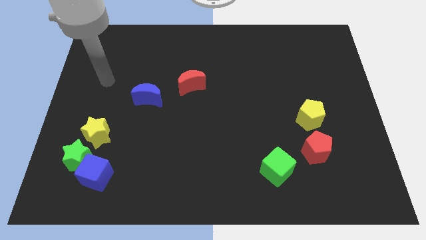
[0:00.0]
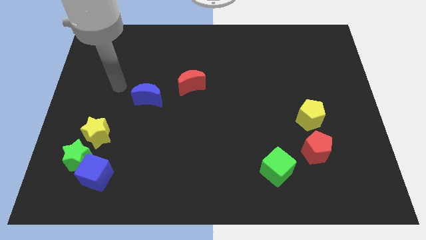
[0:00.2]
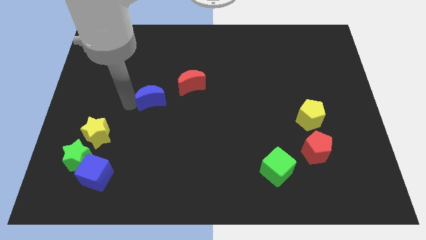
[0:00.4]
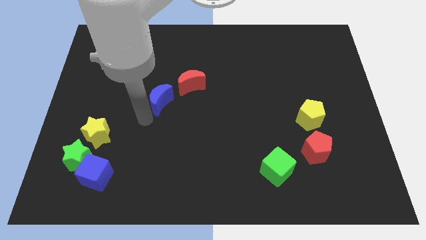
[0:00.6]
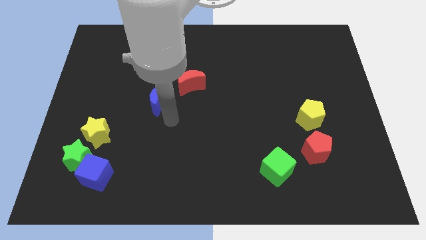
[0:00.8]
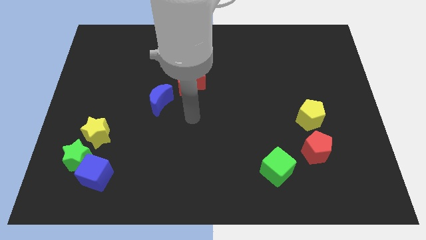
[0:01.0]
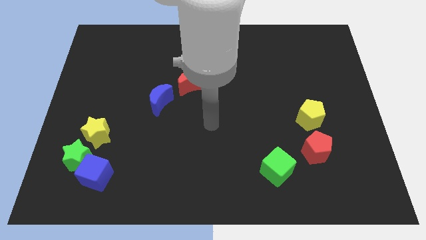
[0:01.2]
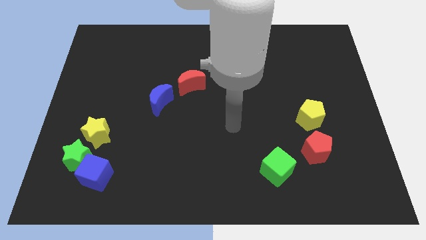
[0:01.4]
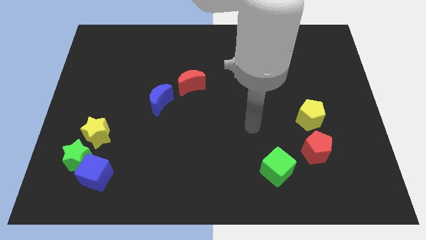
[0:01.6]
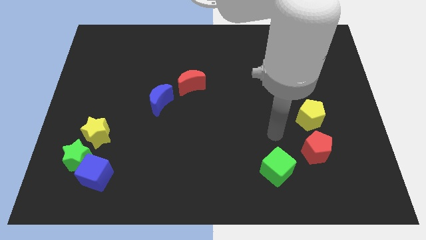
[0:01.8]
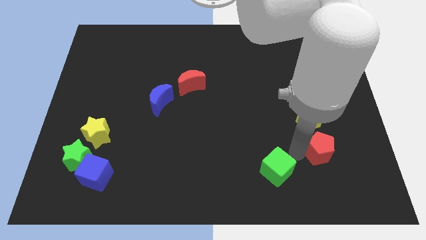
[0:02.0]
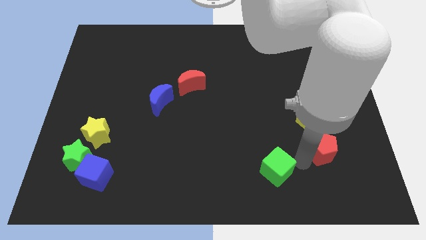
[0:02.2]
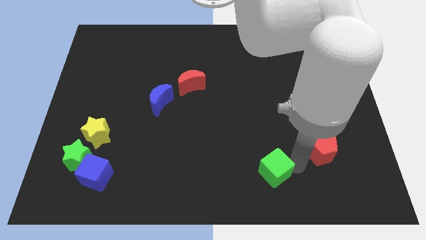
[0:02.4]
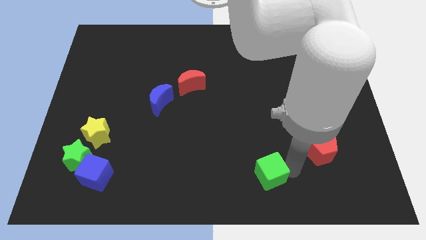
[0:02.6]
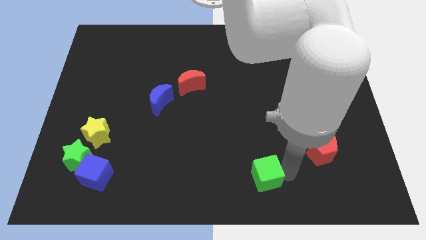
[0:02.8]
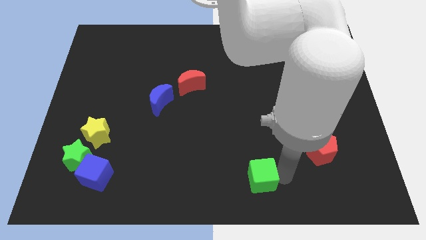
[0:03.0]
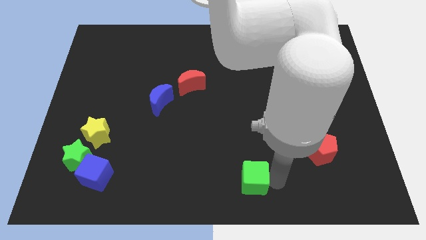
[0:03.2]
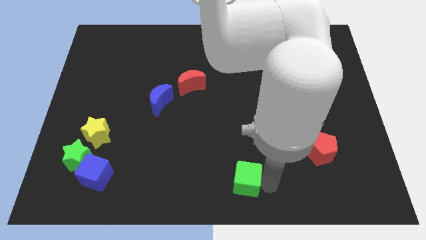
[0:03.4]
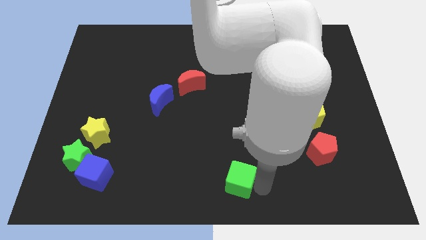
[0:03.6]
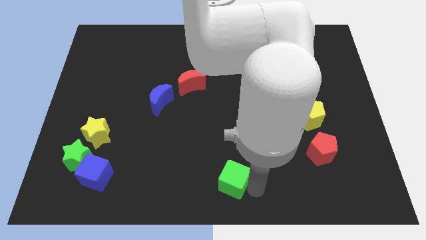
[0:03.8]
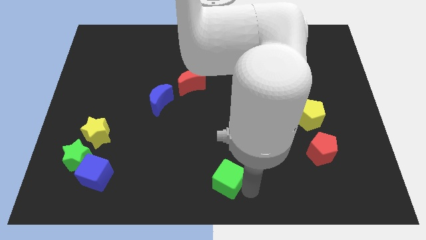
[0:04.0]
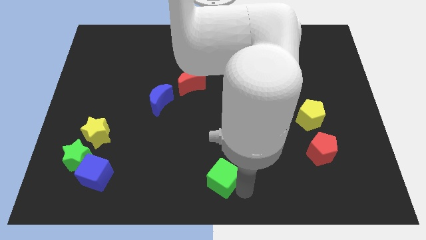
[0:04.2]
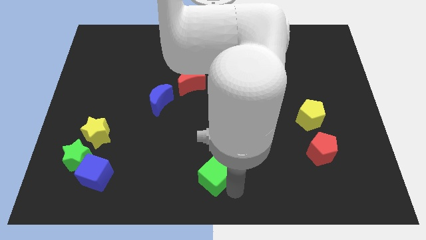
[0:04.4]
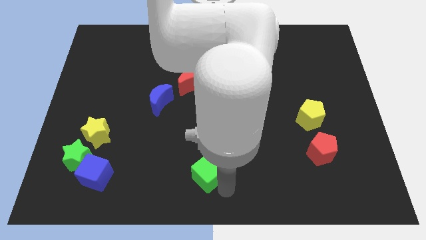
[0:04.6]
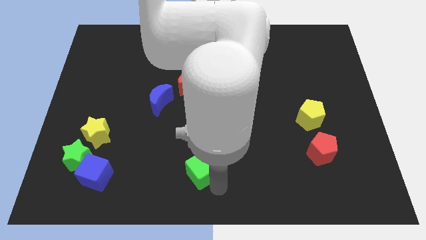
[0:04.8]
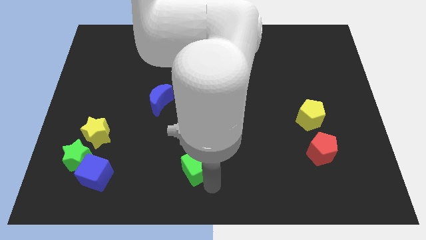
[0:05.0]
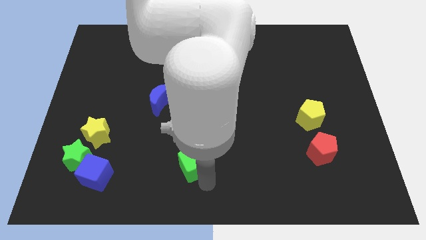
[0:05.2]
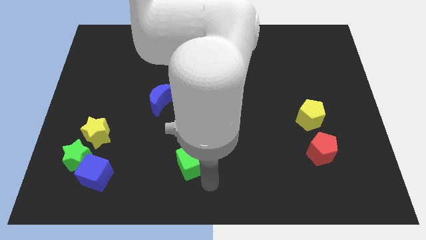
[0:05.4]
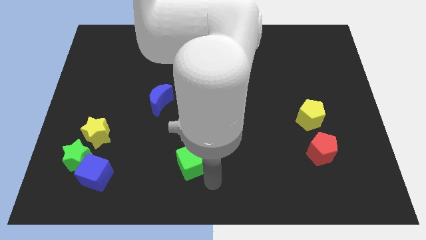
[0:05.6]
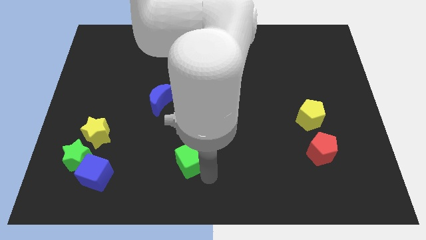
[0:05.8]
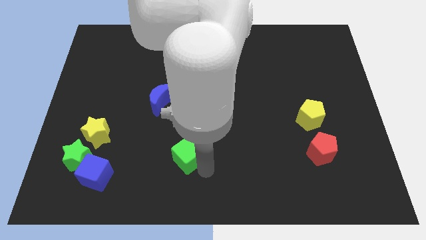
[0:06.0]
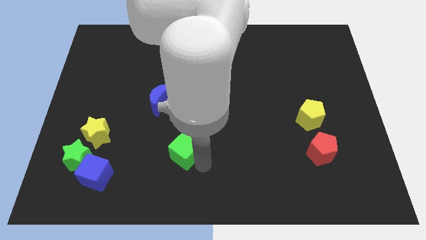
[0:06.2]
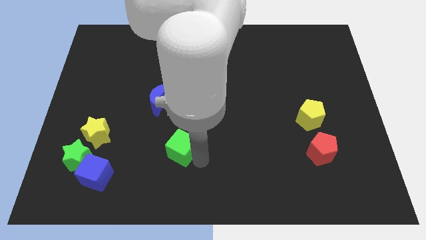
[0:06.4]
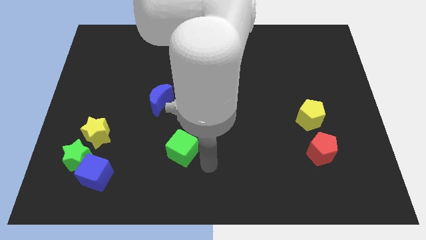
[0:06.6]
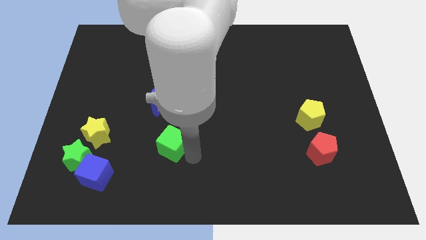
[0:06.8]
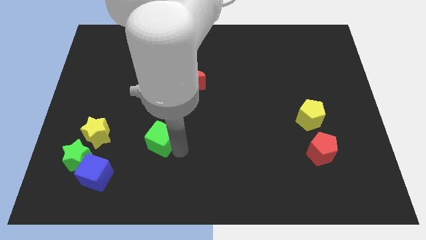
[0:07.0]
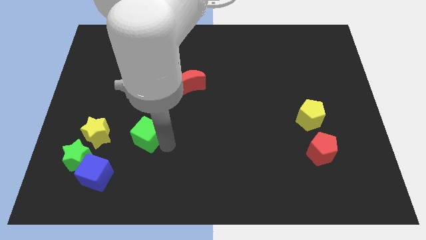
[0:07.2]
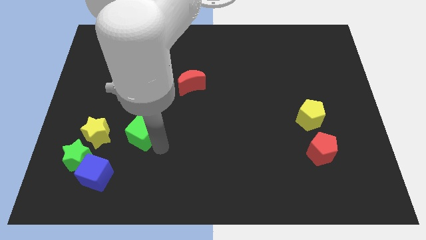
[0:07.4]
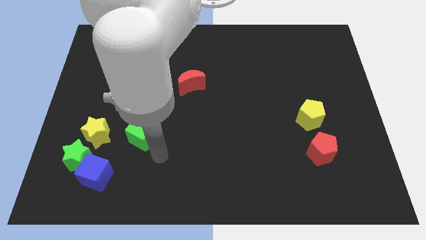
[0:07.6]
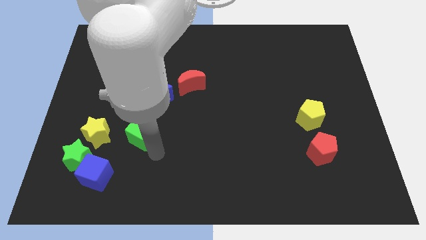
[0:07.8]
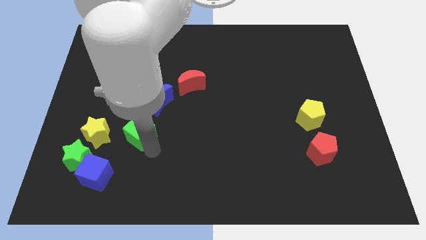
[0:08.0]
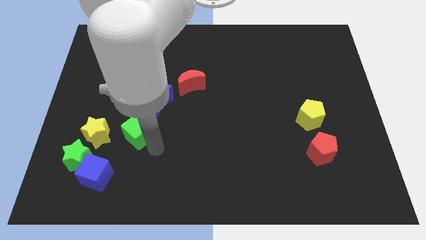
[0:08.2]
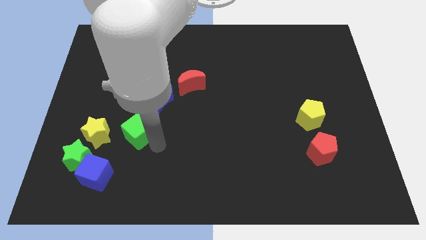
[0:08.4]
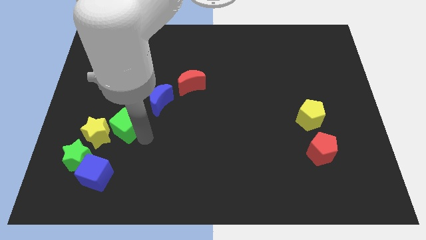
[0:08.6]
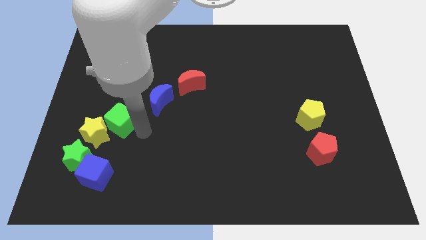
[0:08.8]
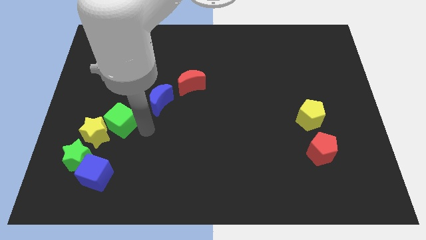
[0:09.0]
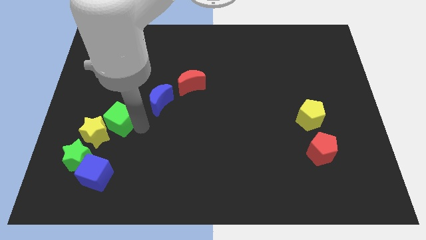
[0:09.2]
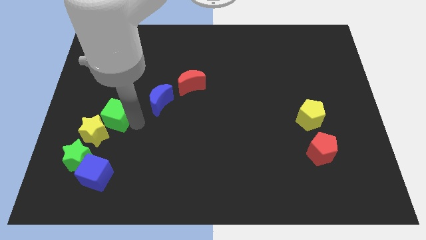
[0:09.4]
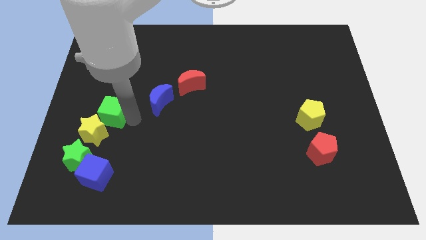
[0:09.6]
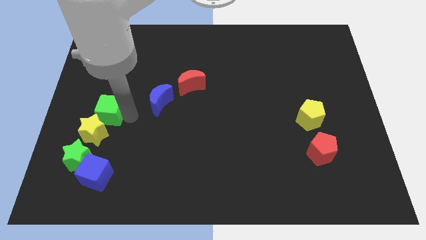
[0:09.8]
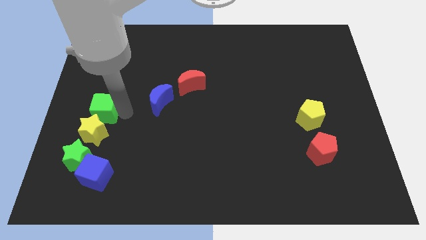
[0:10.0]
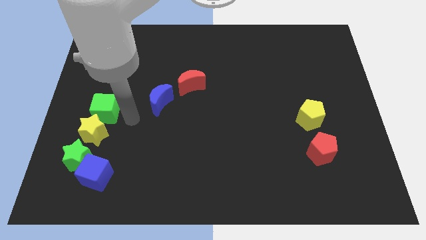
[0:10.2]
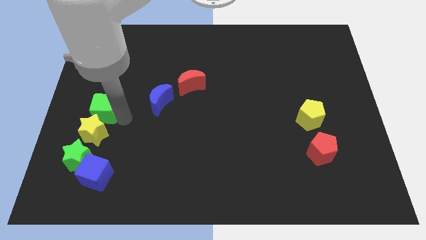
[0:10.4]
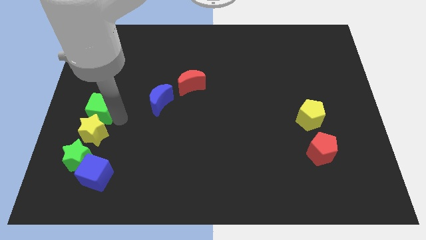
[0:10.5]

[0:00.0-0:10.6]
slide the green cube to the center left
